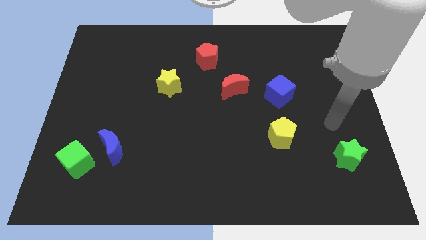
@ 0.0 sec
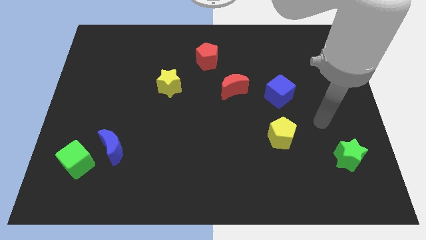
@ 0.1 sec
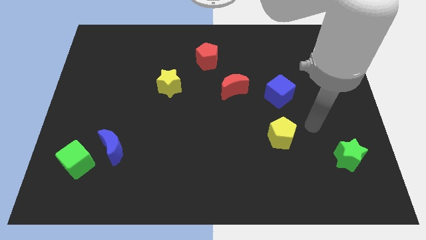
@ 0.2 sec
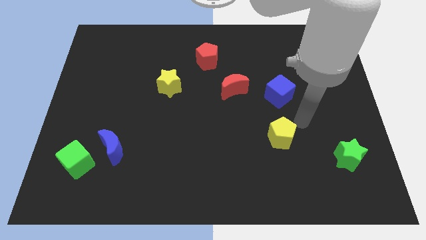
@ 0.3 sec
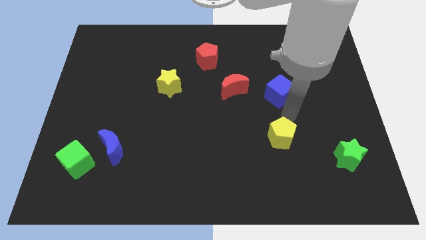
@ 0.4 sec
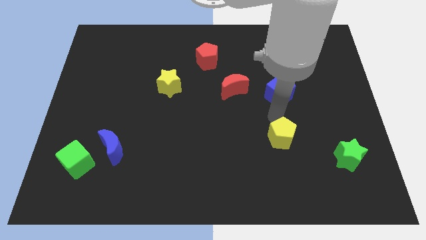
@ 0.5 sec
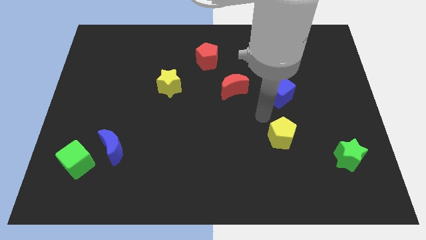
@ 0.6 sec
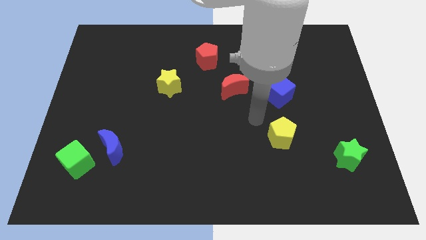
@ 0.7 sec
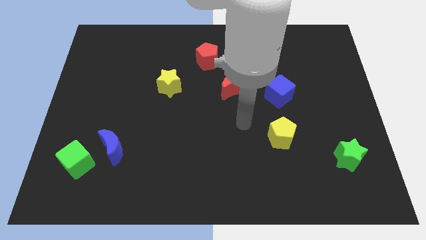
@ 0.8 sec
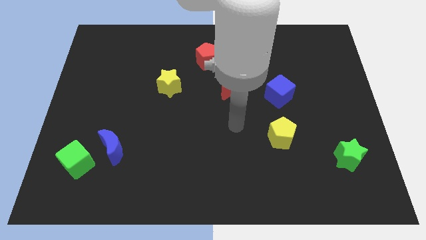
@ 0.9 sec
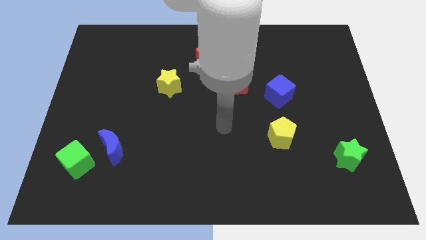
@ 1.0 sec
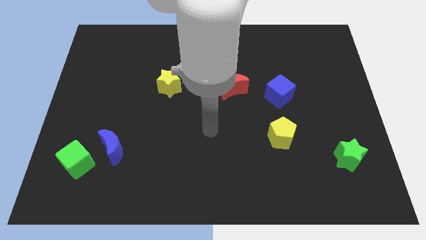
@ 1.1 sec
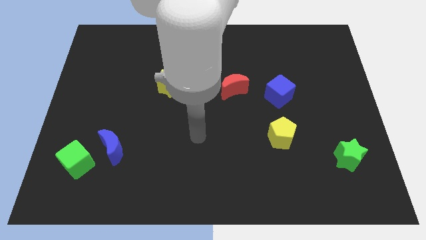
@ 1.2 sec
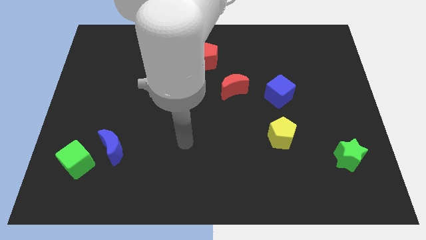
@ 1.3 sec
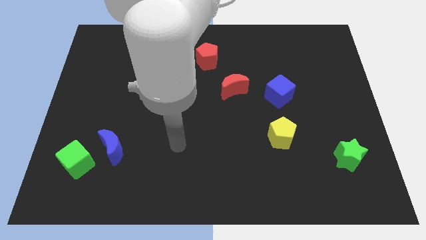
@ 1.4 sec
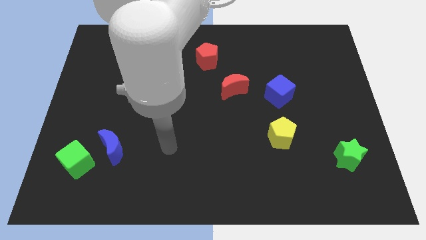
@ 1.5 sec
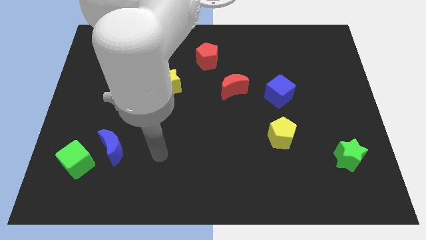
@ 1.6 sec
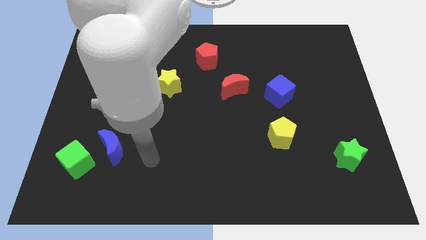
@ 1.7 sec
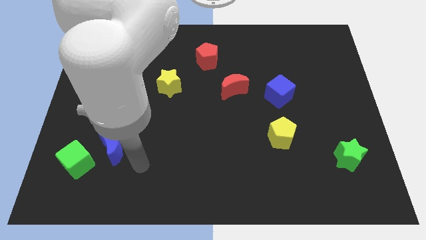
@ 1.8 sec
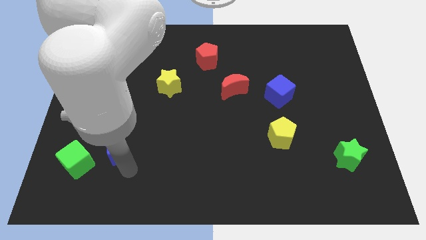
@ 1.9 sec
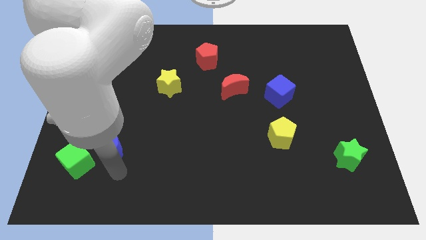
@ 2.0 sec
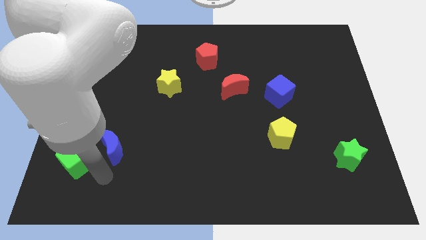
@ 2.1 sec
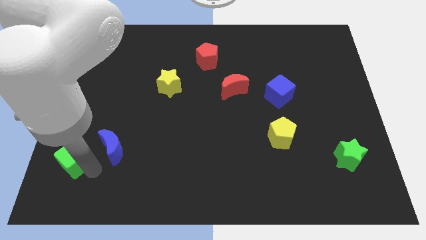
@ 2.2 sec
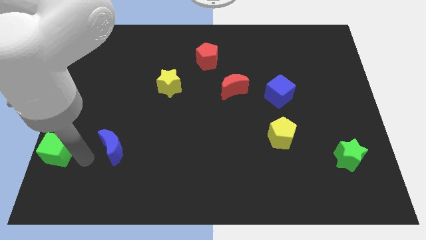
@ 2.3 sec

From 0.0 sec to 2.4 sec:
move the blue moon away from the green cube

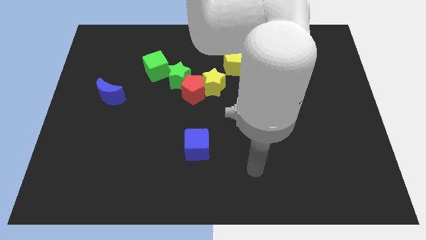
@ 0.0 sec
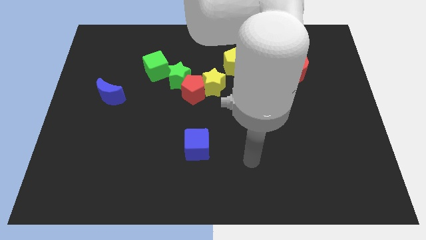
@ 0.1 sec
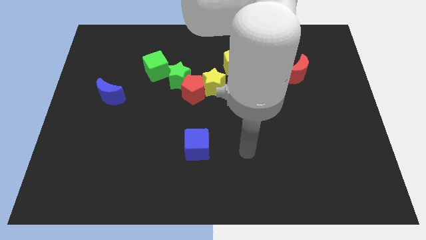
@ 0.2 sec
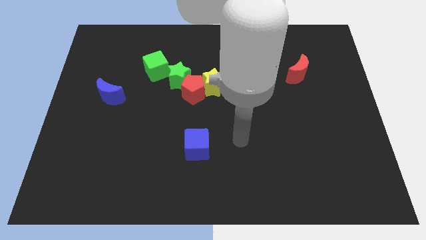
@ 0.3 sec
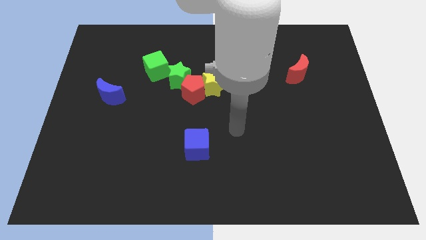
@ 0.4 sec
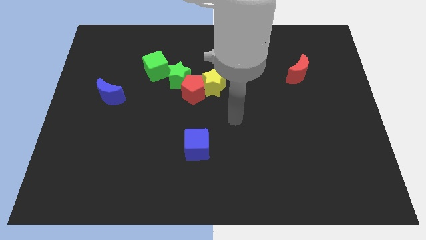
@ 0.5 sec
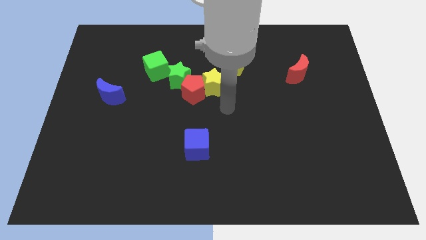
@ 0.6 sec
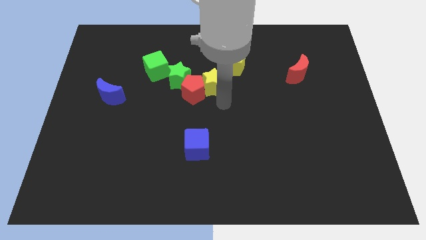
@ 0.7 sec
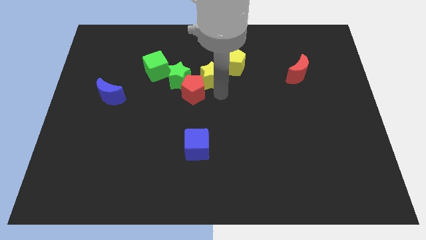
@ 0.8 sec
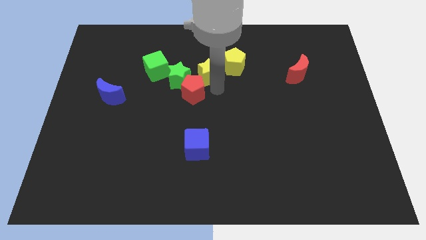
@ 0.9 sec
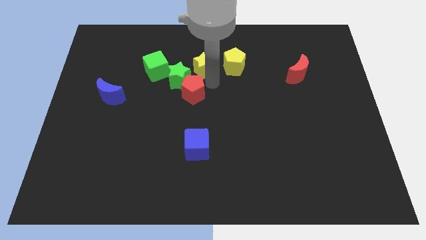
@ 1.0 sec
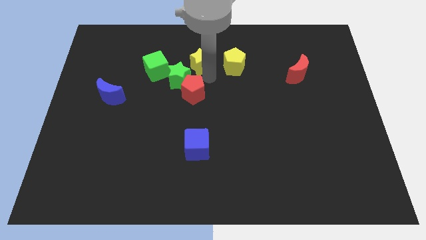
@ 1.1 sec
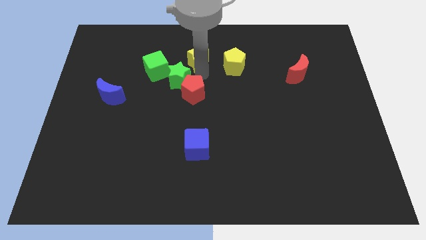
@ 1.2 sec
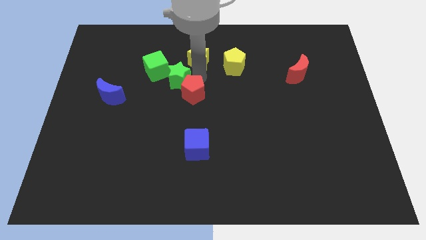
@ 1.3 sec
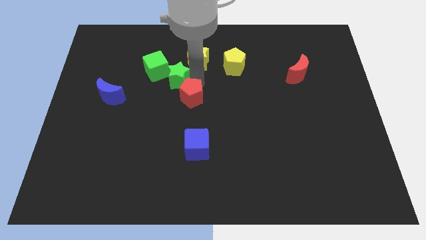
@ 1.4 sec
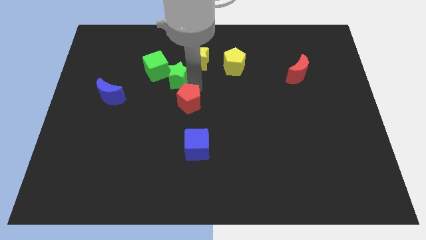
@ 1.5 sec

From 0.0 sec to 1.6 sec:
pull the red pentagon apart from the green star and yellow star

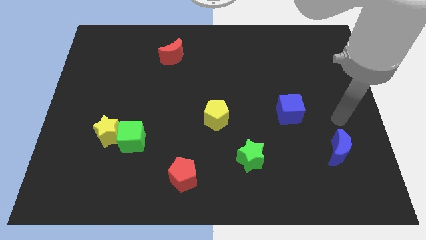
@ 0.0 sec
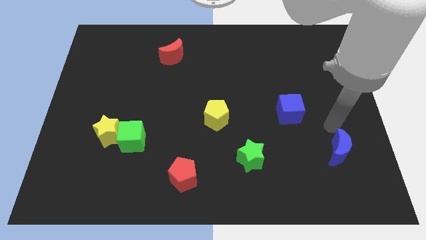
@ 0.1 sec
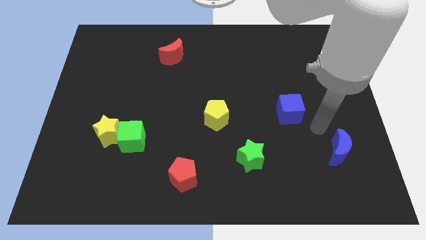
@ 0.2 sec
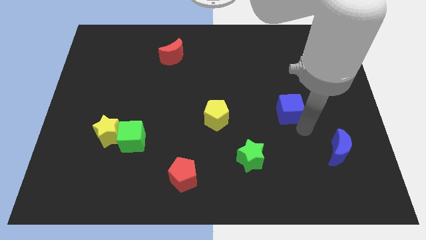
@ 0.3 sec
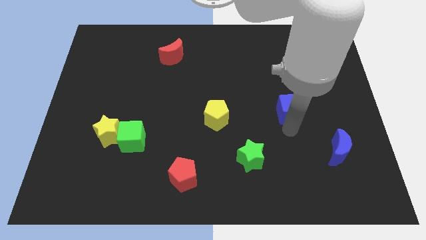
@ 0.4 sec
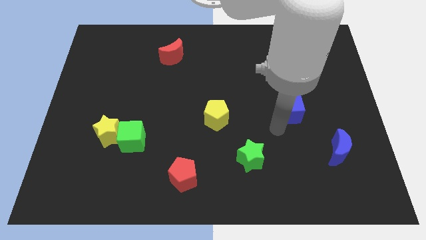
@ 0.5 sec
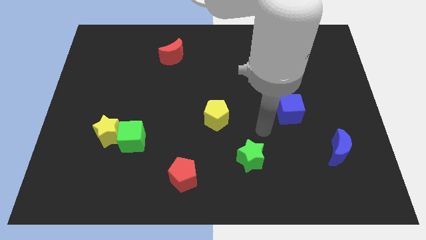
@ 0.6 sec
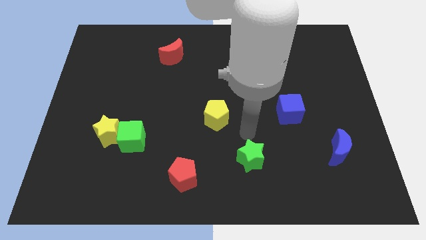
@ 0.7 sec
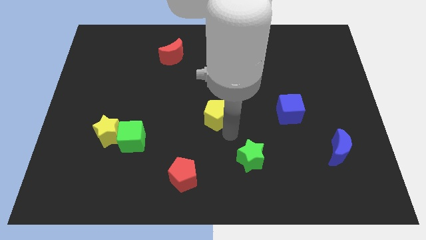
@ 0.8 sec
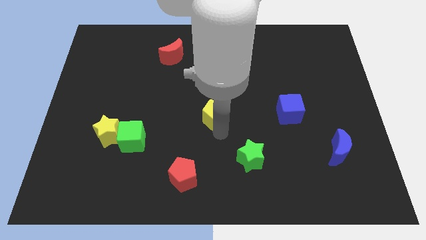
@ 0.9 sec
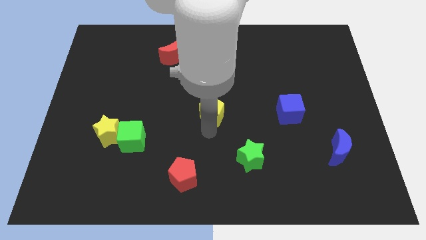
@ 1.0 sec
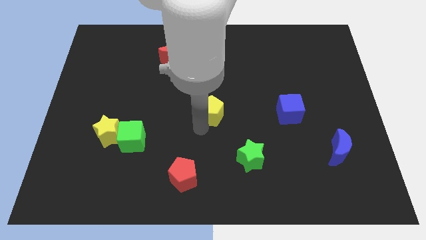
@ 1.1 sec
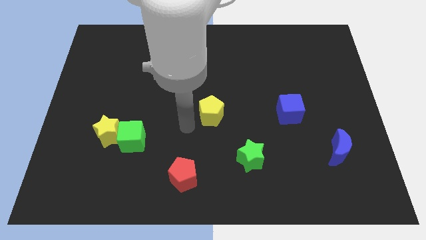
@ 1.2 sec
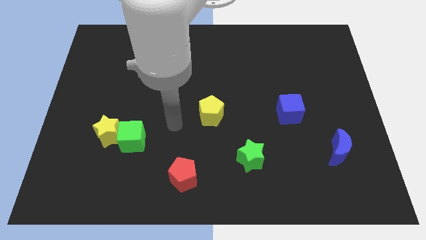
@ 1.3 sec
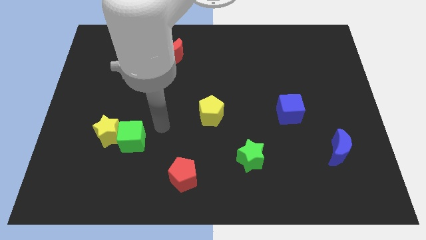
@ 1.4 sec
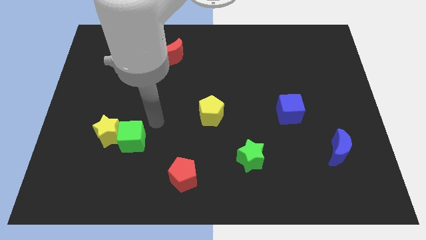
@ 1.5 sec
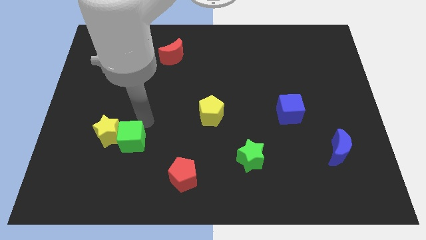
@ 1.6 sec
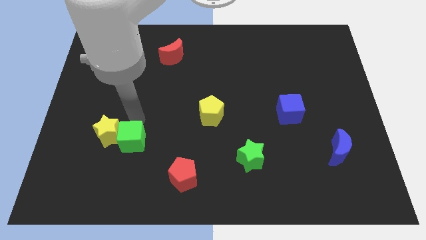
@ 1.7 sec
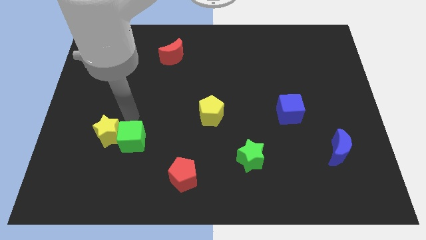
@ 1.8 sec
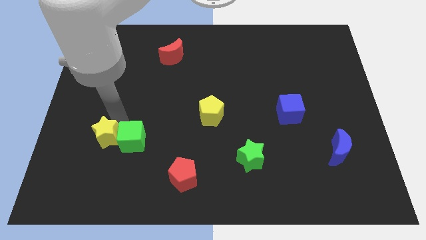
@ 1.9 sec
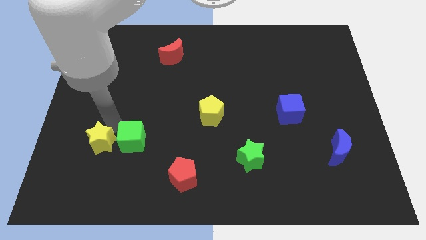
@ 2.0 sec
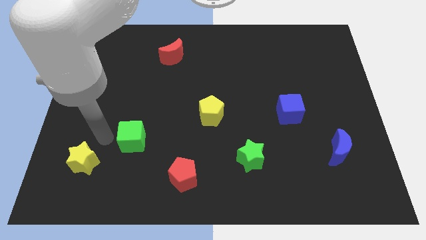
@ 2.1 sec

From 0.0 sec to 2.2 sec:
separate the green cube from the yellow star

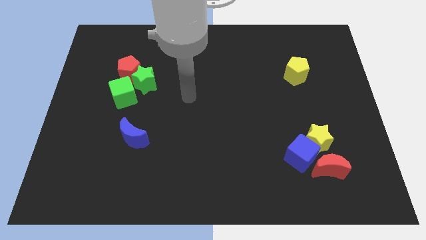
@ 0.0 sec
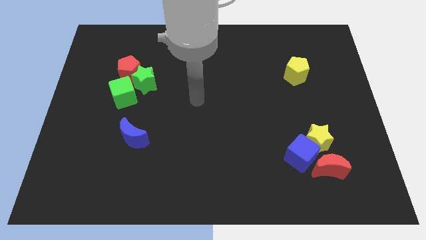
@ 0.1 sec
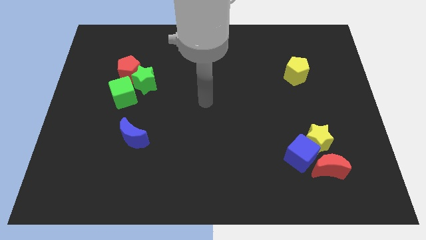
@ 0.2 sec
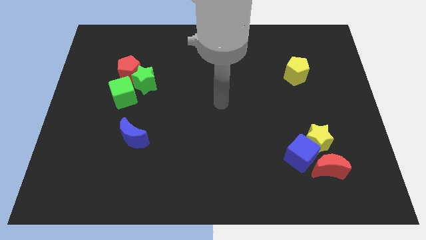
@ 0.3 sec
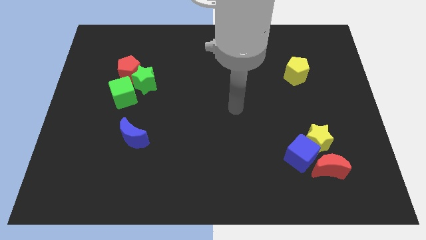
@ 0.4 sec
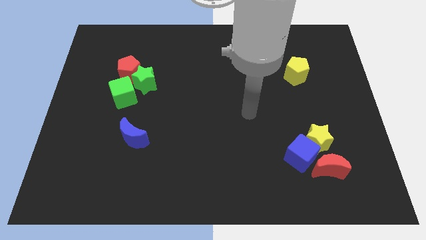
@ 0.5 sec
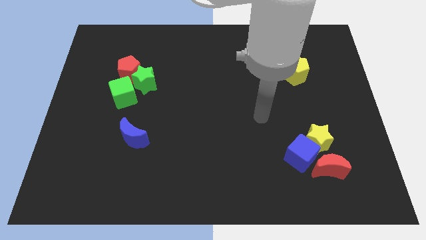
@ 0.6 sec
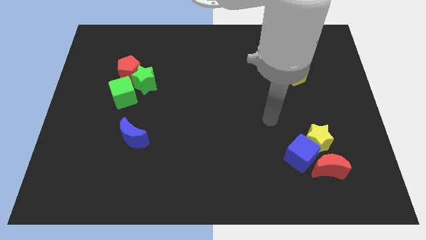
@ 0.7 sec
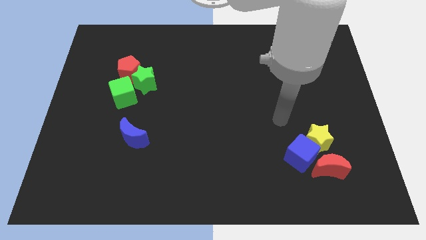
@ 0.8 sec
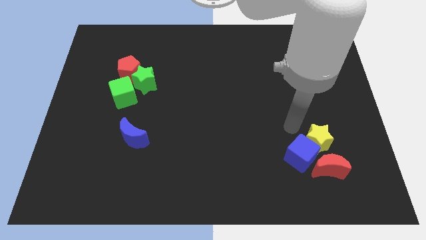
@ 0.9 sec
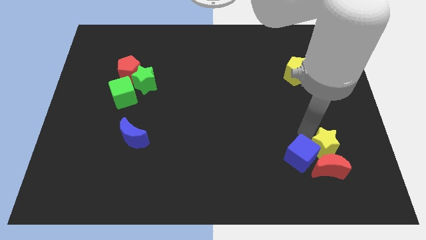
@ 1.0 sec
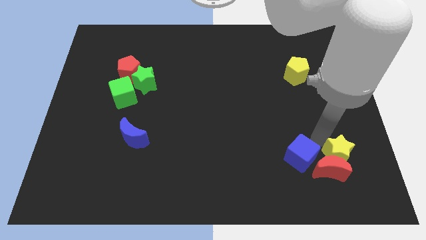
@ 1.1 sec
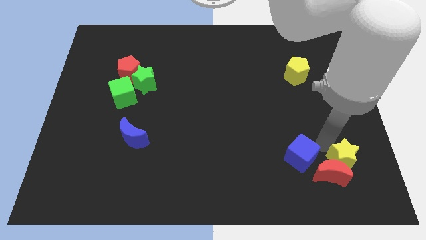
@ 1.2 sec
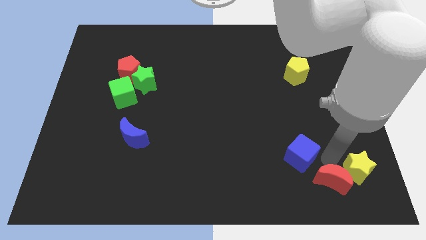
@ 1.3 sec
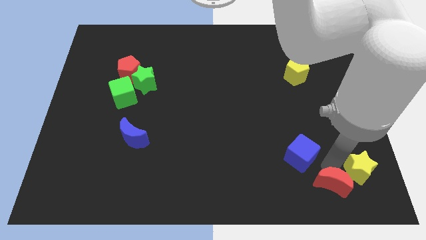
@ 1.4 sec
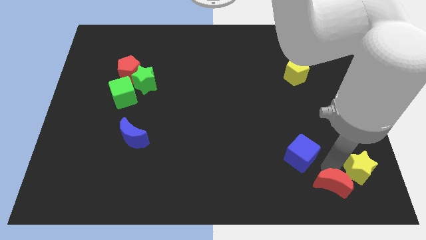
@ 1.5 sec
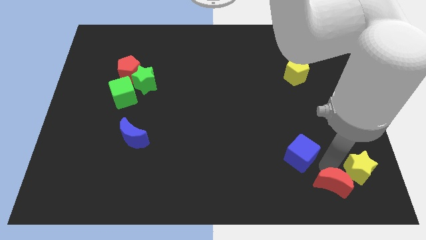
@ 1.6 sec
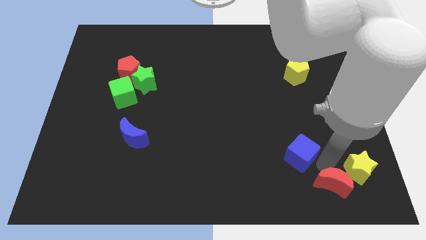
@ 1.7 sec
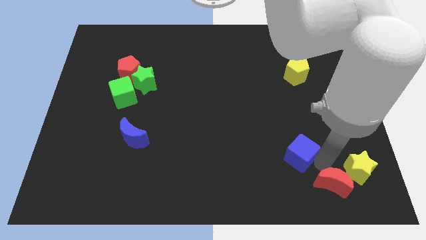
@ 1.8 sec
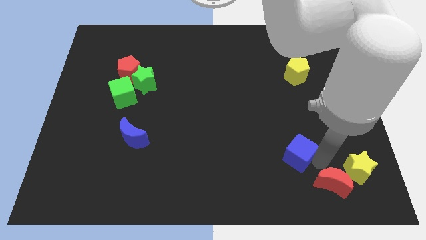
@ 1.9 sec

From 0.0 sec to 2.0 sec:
pull the blue cube apart from the yellow star and red moon

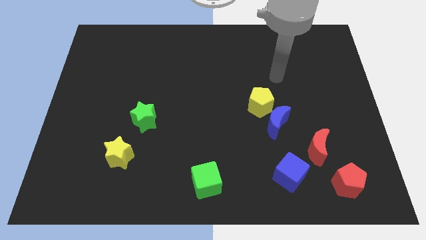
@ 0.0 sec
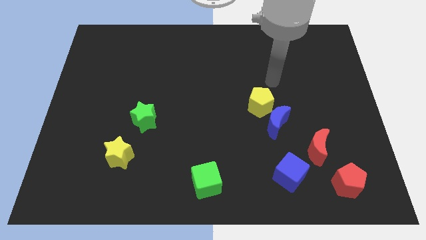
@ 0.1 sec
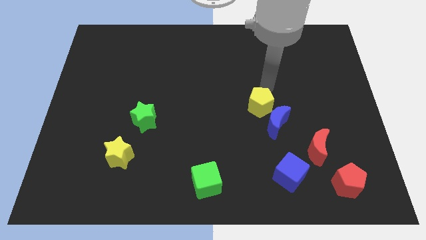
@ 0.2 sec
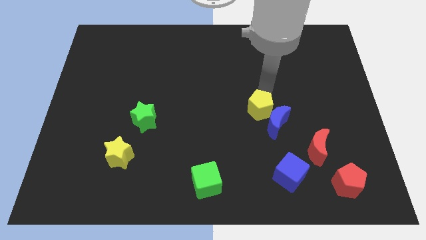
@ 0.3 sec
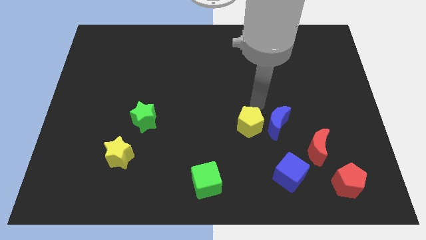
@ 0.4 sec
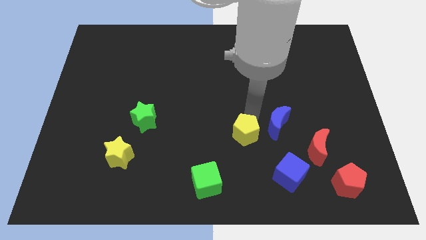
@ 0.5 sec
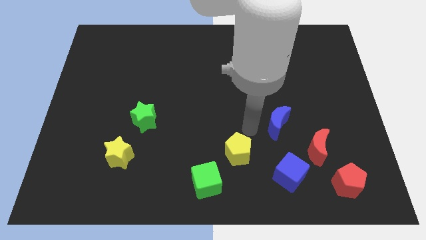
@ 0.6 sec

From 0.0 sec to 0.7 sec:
separate the blue moon from the yellow pentagon

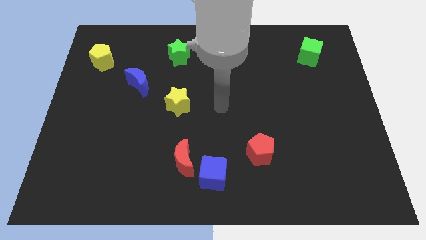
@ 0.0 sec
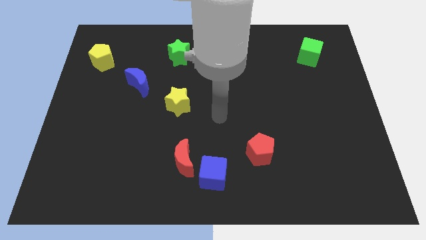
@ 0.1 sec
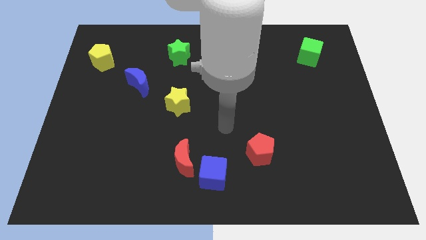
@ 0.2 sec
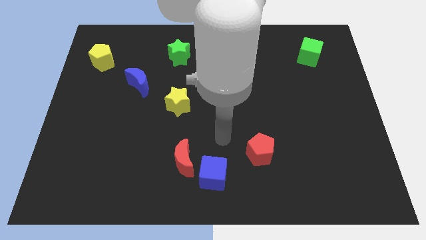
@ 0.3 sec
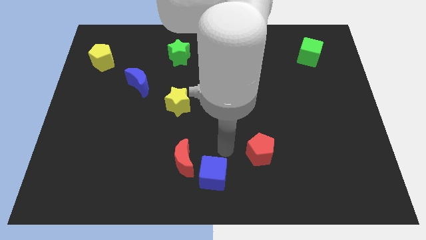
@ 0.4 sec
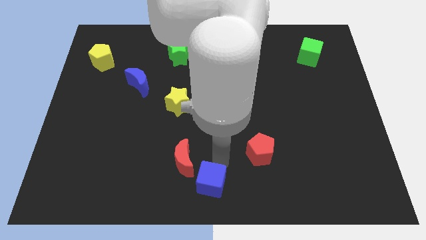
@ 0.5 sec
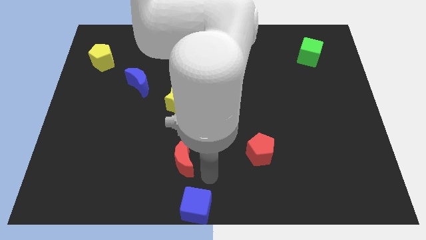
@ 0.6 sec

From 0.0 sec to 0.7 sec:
separate the red moon from the blue cube
